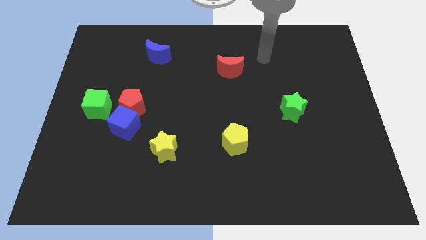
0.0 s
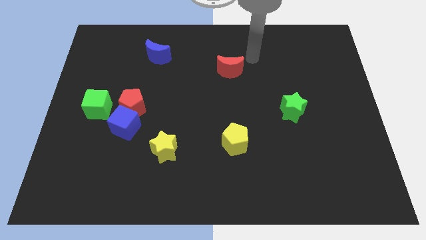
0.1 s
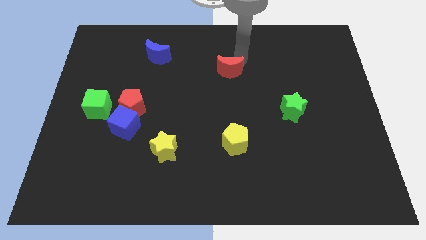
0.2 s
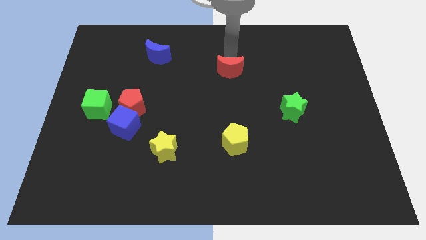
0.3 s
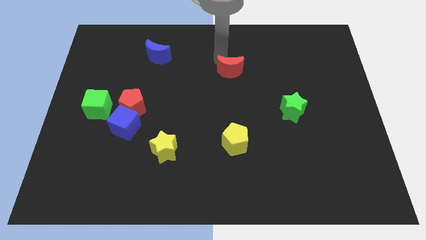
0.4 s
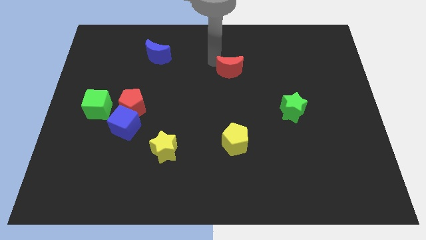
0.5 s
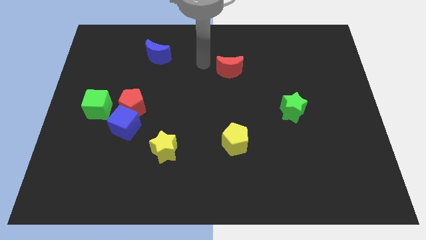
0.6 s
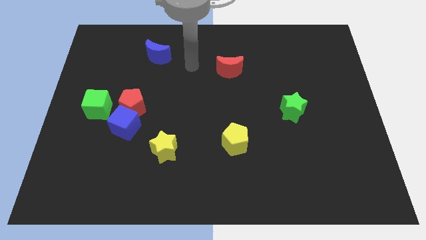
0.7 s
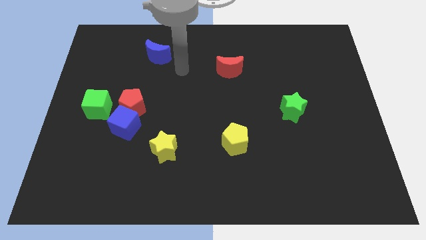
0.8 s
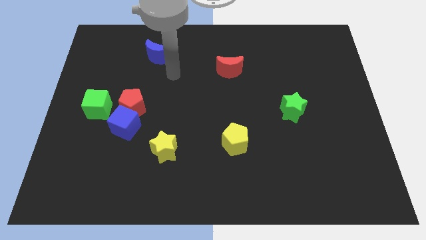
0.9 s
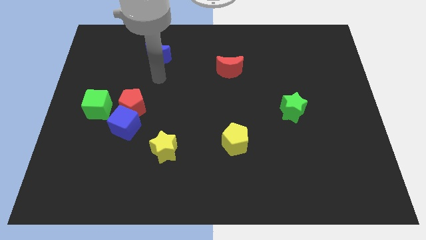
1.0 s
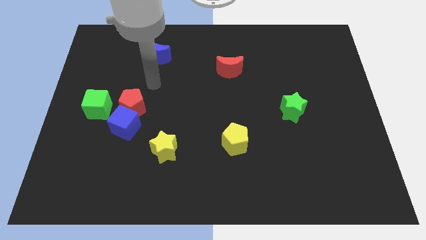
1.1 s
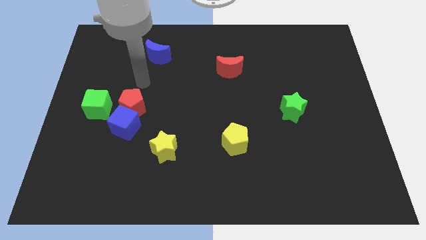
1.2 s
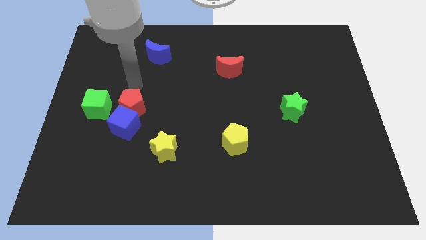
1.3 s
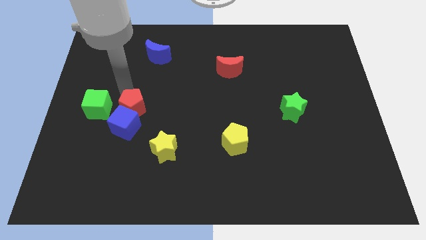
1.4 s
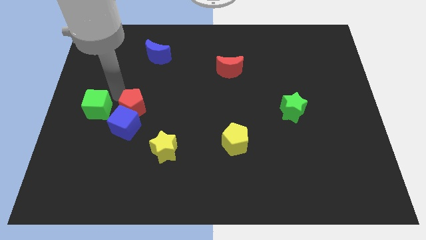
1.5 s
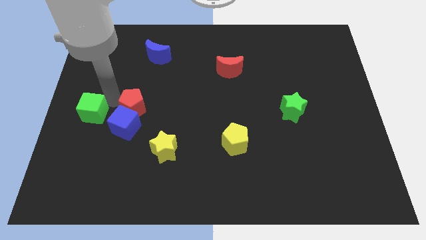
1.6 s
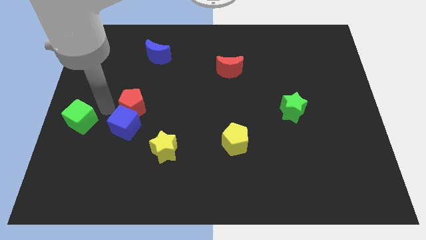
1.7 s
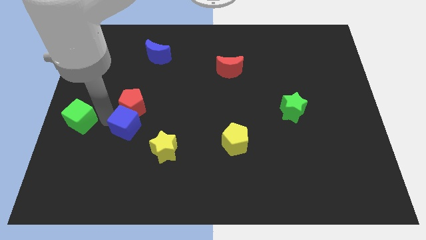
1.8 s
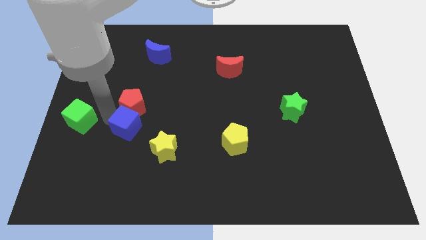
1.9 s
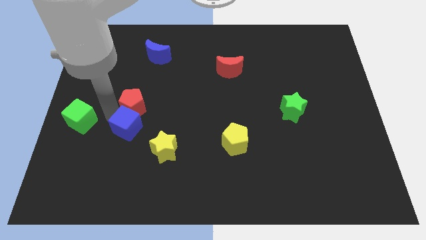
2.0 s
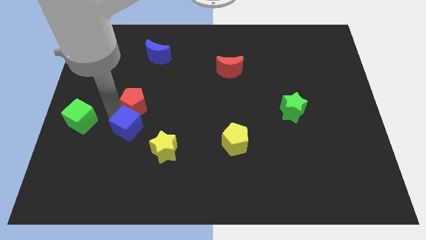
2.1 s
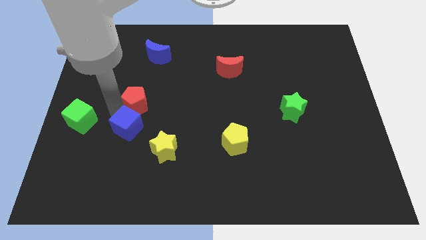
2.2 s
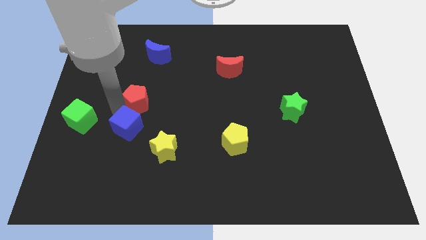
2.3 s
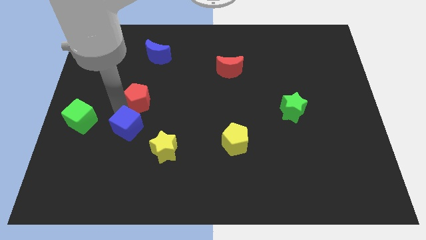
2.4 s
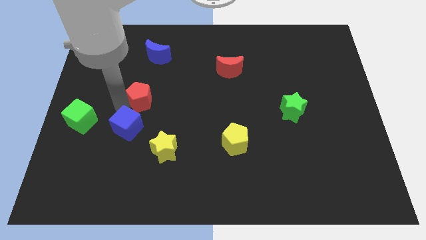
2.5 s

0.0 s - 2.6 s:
separate the red pentagon from the blue cube and green cube

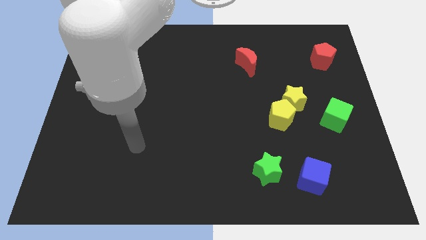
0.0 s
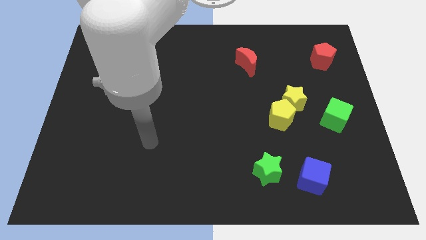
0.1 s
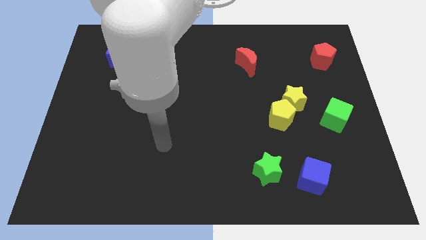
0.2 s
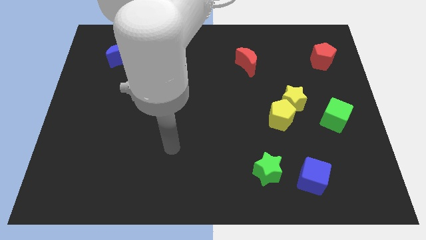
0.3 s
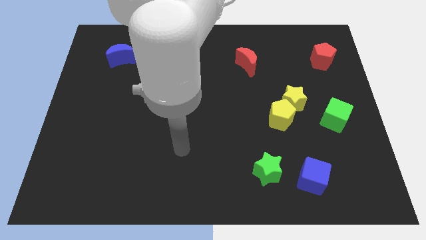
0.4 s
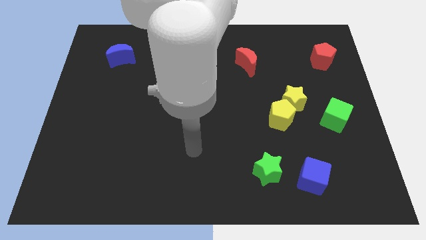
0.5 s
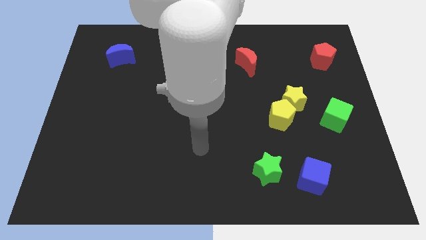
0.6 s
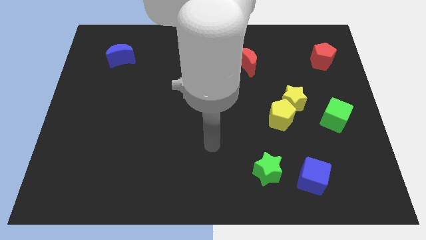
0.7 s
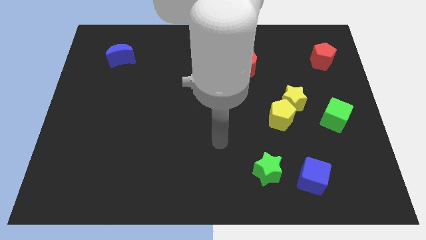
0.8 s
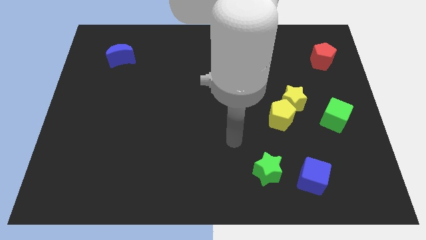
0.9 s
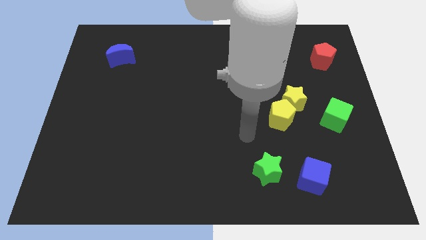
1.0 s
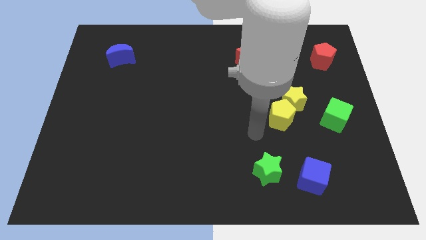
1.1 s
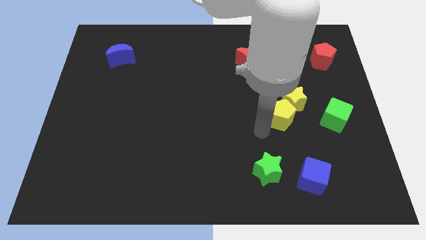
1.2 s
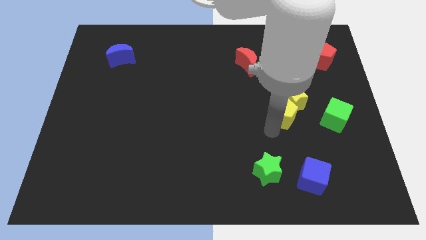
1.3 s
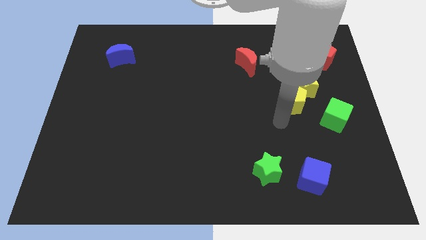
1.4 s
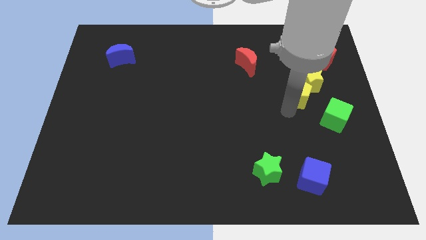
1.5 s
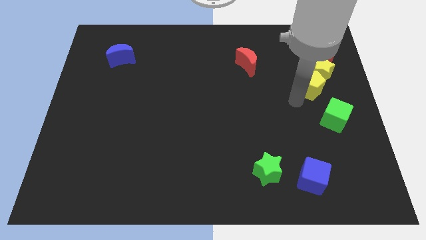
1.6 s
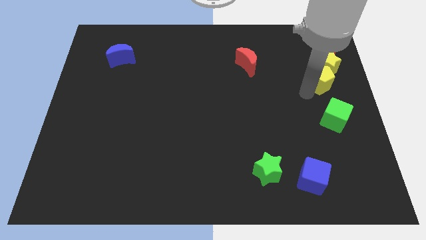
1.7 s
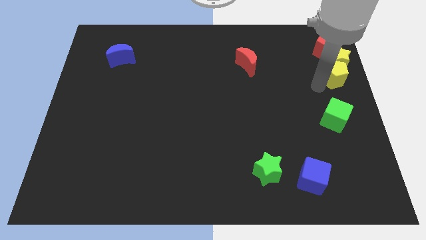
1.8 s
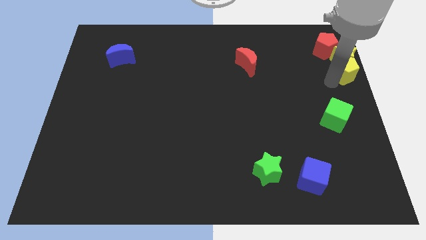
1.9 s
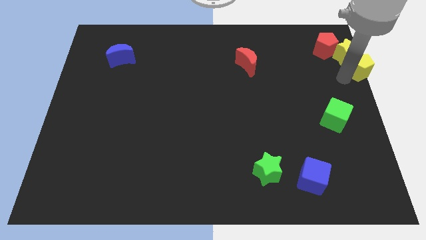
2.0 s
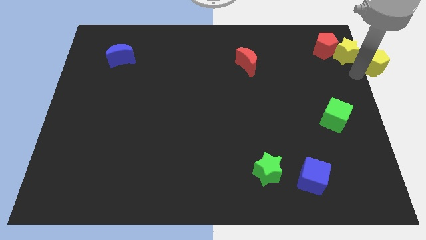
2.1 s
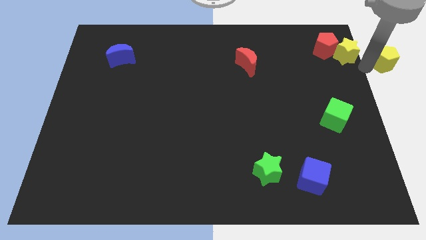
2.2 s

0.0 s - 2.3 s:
separate the yellow star from the yellow pentagon

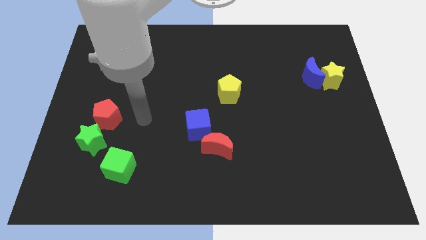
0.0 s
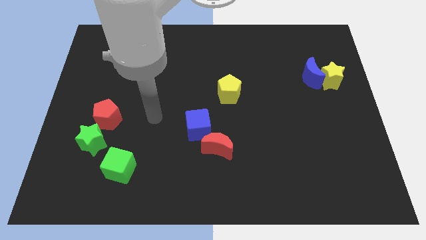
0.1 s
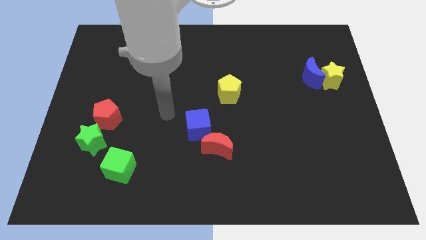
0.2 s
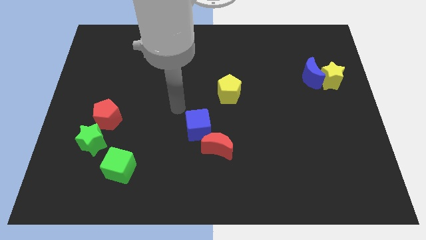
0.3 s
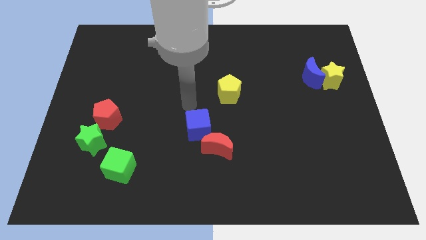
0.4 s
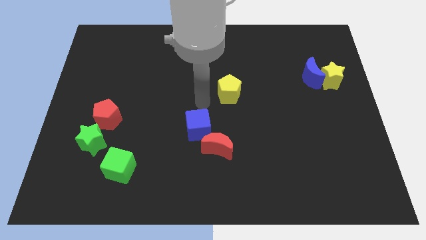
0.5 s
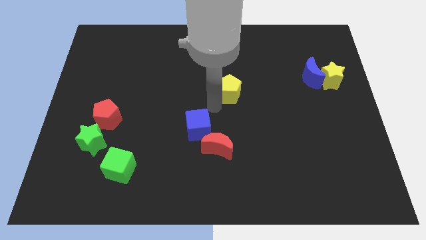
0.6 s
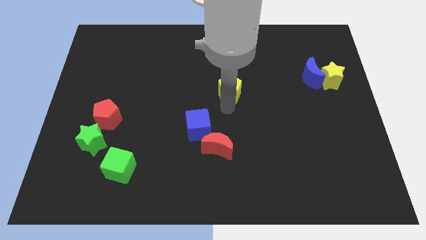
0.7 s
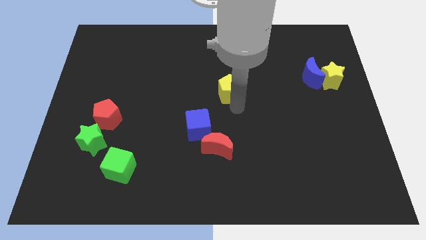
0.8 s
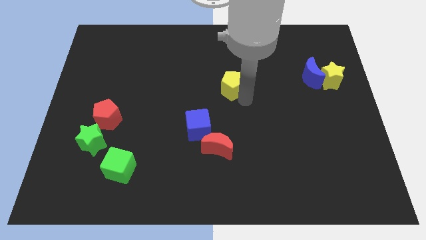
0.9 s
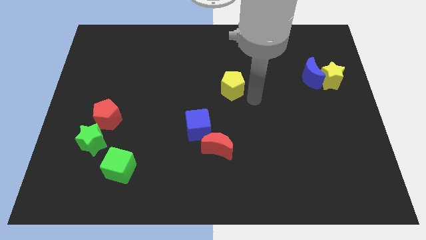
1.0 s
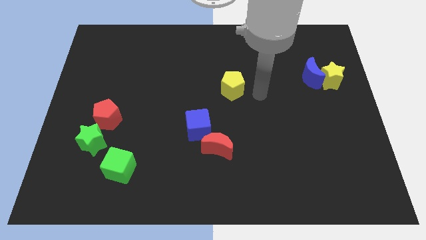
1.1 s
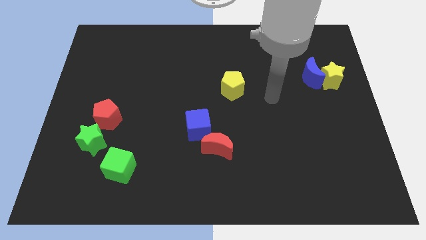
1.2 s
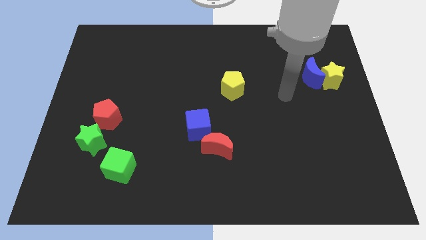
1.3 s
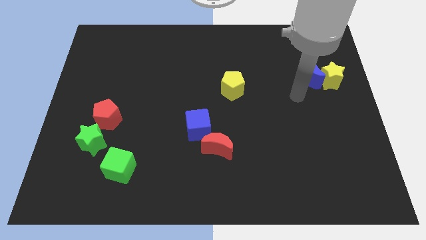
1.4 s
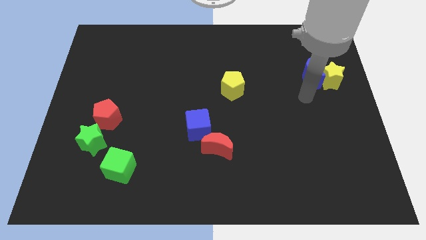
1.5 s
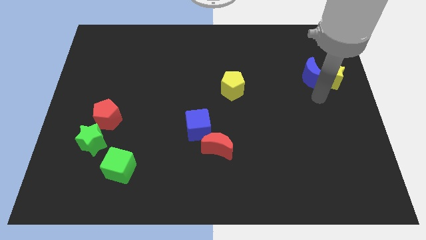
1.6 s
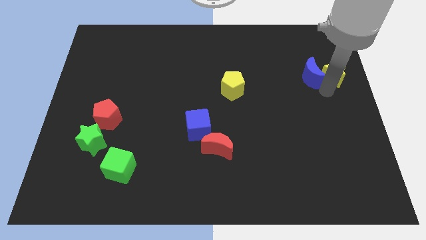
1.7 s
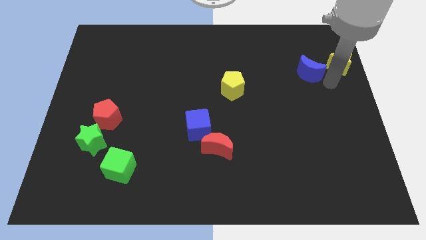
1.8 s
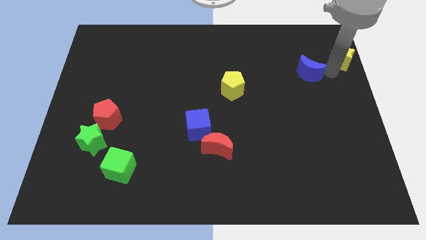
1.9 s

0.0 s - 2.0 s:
separate the blue moon from the yellow star

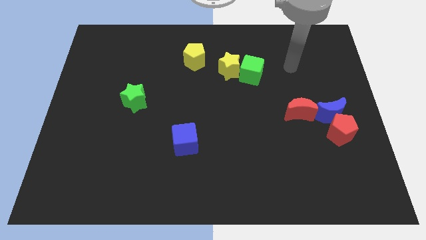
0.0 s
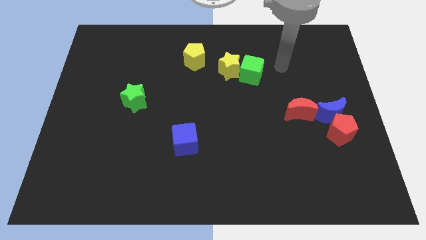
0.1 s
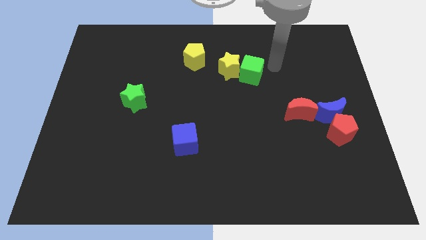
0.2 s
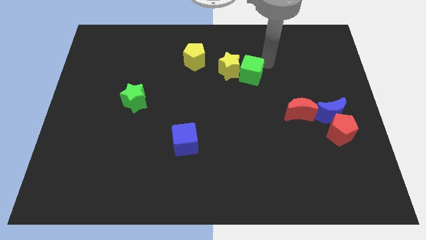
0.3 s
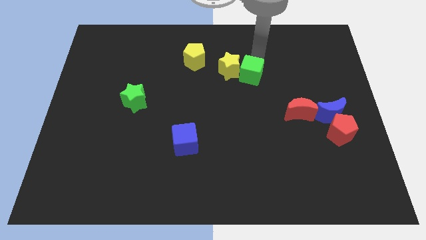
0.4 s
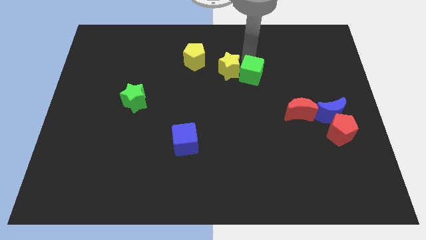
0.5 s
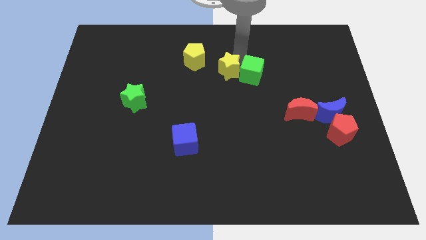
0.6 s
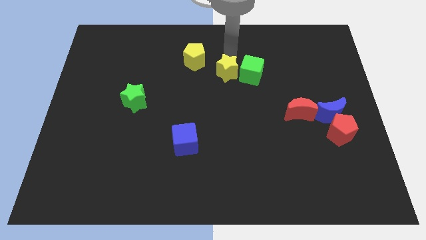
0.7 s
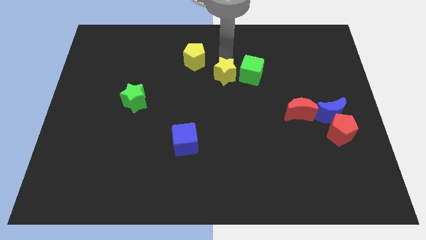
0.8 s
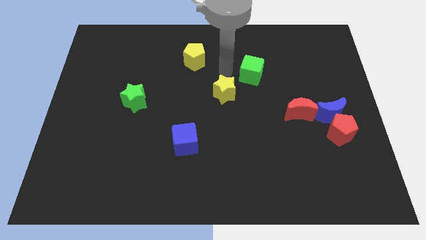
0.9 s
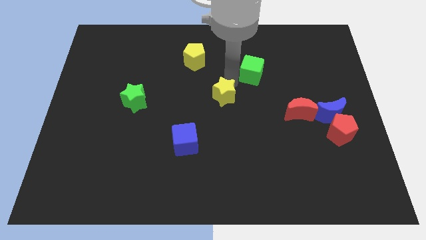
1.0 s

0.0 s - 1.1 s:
move the green cube away from the yellow star

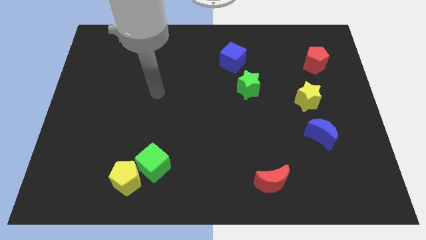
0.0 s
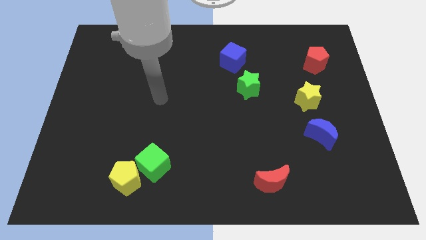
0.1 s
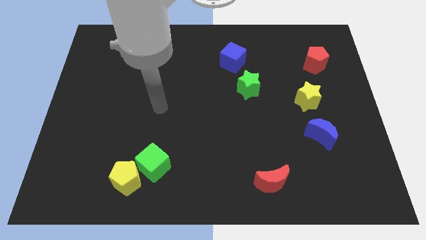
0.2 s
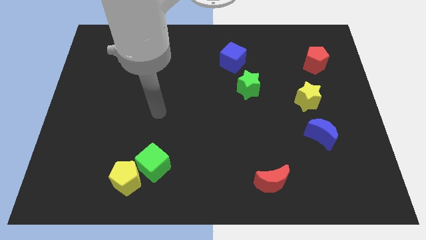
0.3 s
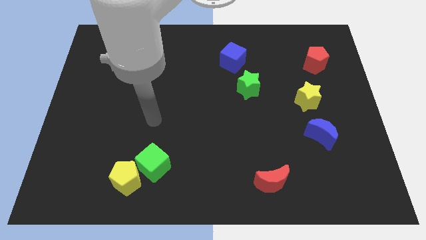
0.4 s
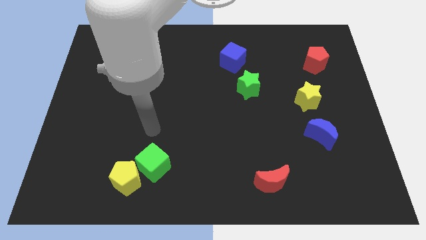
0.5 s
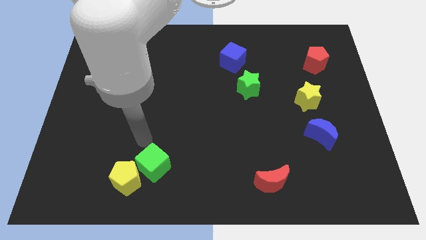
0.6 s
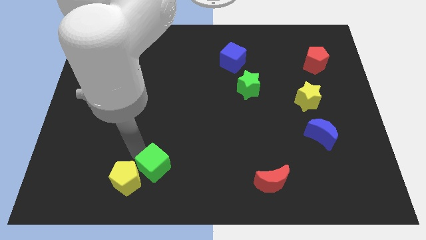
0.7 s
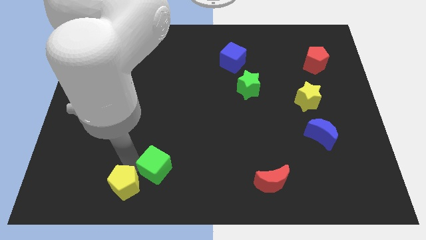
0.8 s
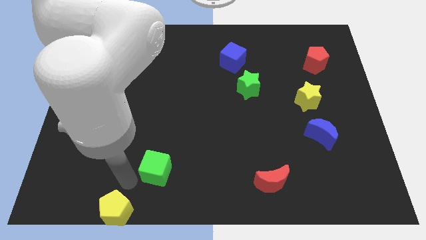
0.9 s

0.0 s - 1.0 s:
move the green cube away from the yellow pentagon

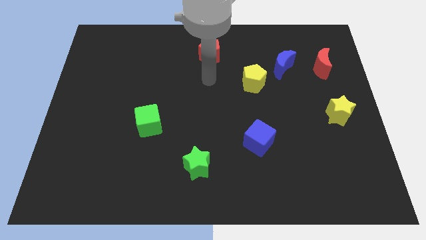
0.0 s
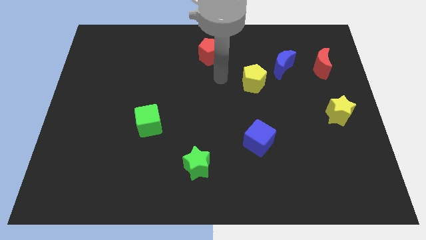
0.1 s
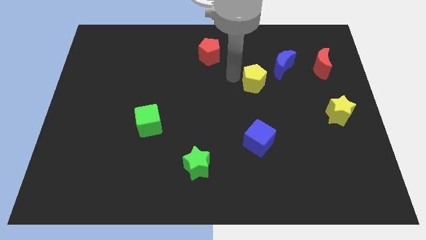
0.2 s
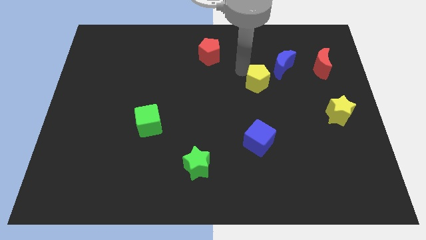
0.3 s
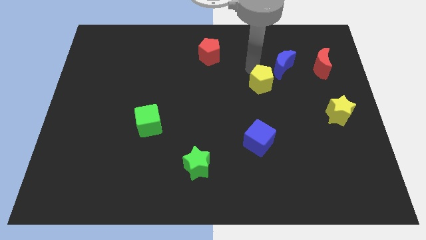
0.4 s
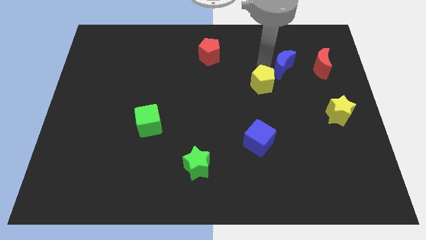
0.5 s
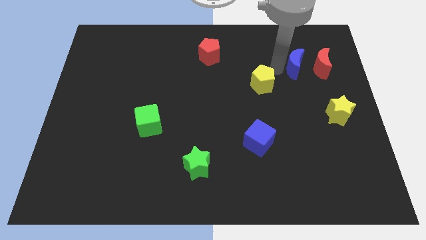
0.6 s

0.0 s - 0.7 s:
separate the yellow pentagon from the blue moon
